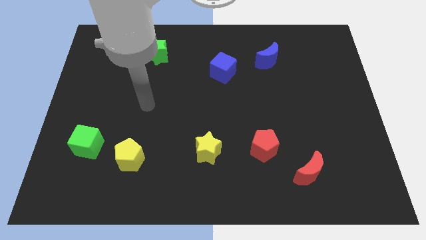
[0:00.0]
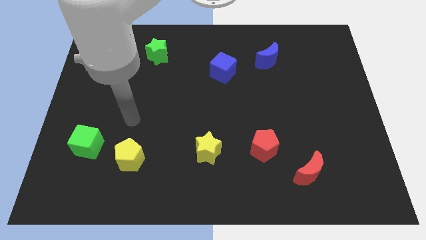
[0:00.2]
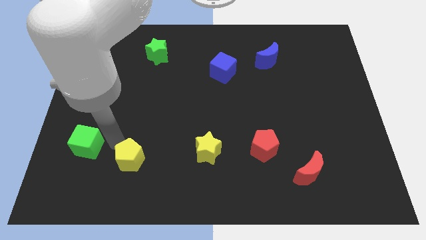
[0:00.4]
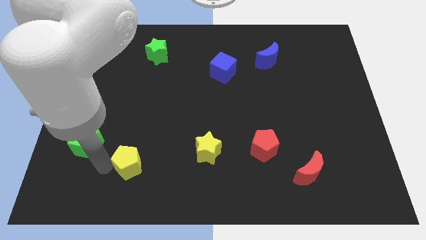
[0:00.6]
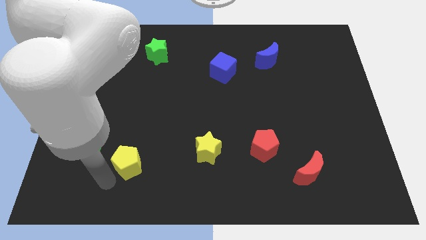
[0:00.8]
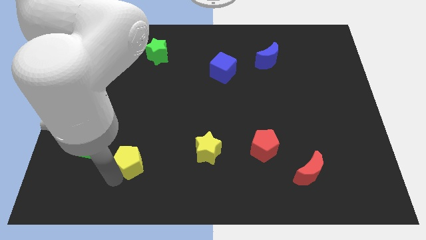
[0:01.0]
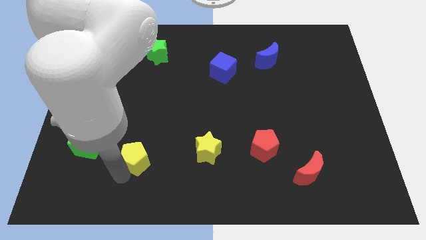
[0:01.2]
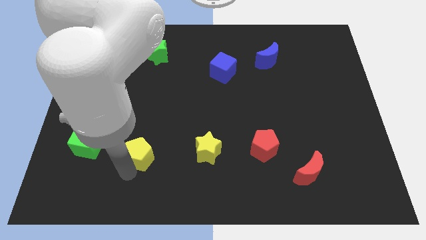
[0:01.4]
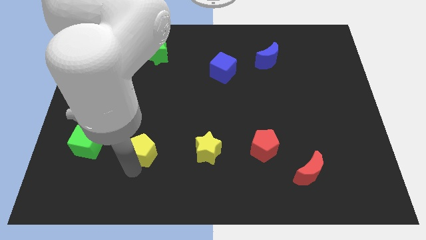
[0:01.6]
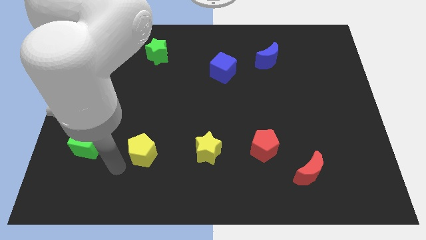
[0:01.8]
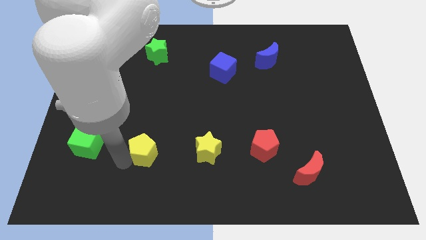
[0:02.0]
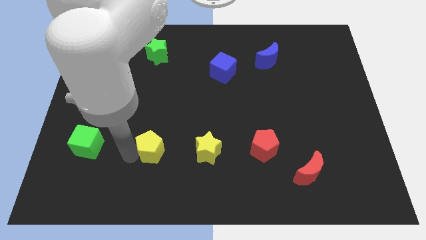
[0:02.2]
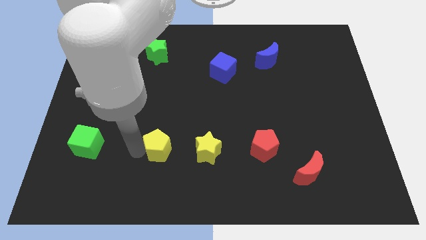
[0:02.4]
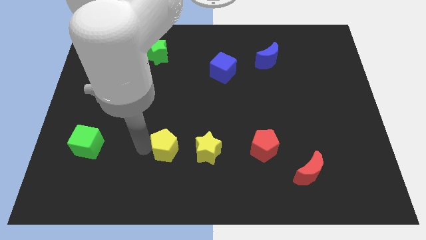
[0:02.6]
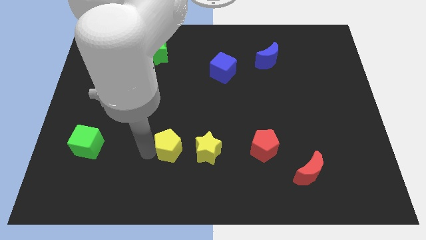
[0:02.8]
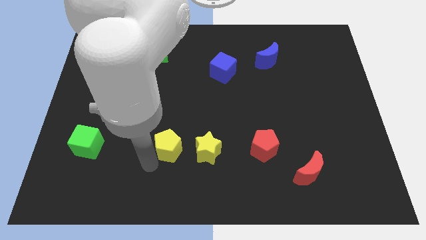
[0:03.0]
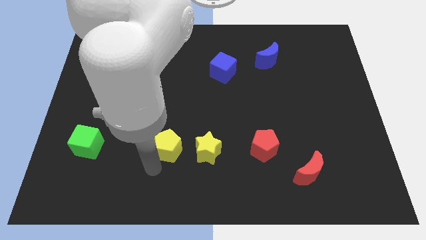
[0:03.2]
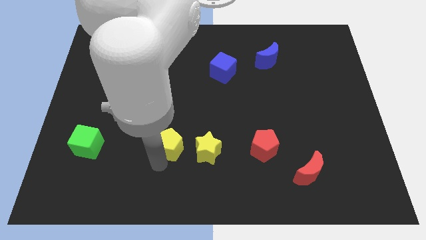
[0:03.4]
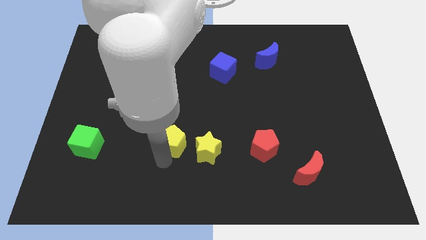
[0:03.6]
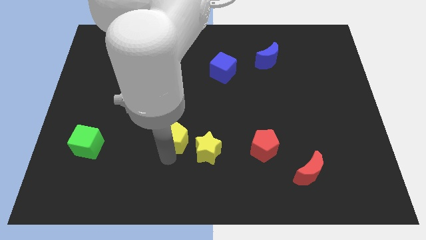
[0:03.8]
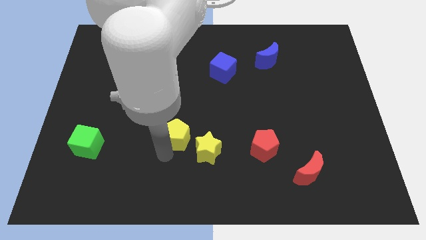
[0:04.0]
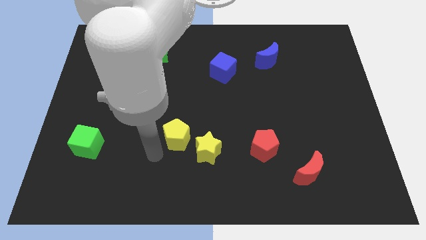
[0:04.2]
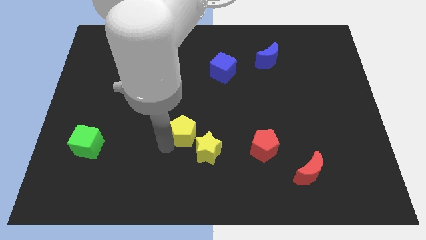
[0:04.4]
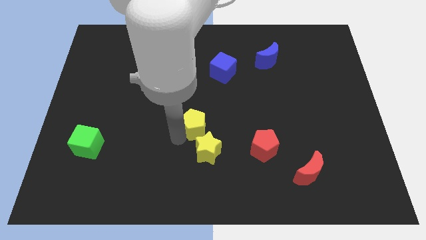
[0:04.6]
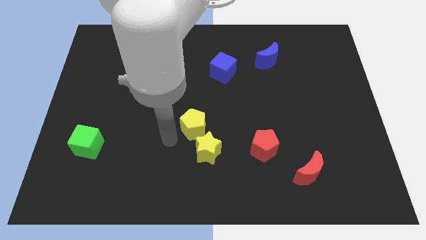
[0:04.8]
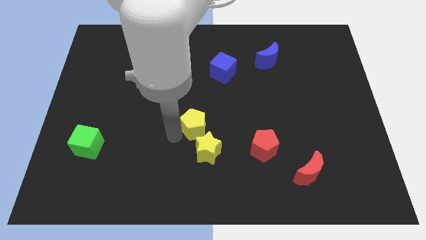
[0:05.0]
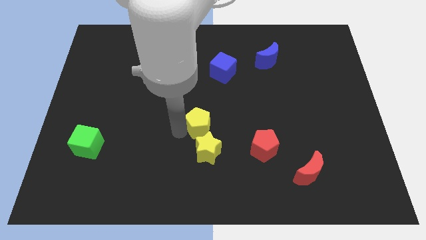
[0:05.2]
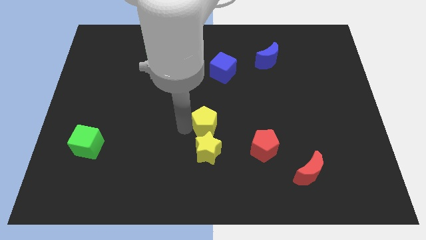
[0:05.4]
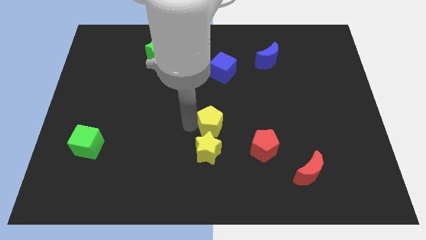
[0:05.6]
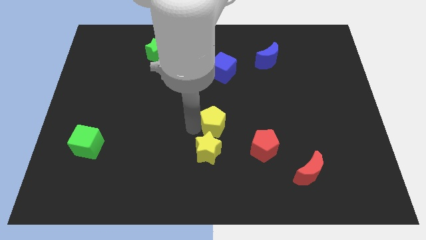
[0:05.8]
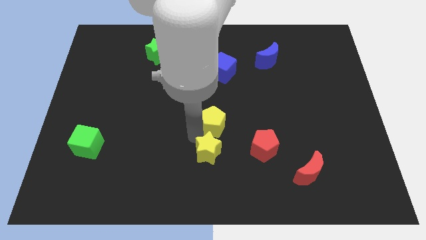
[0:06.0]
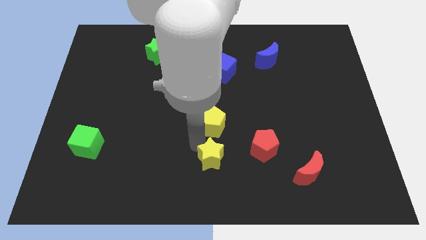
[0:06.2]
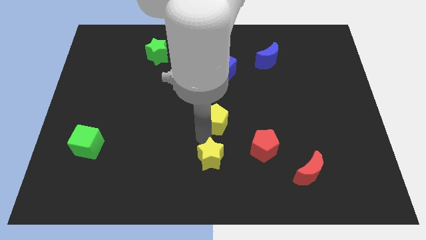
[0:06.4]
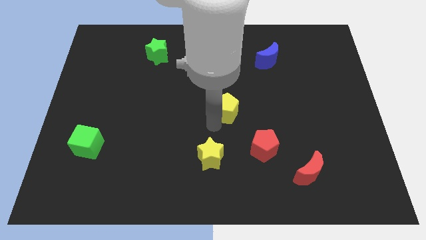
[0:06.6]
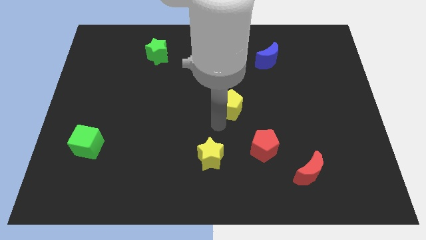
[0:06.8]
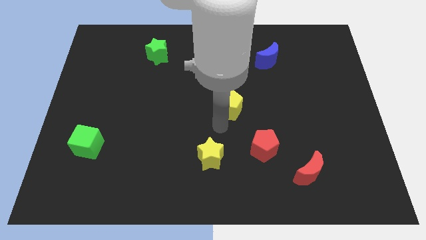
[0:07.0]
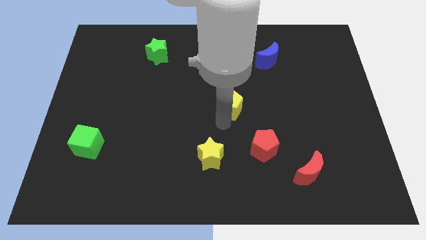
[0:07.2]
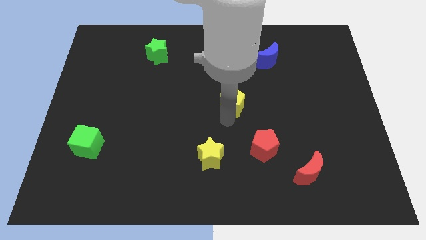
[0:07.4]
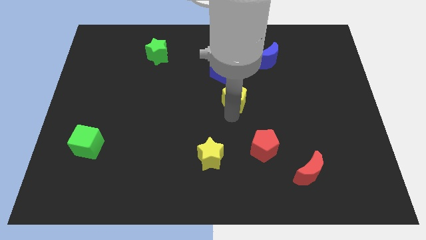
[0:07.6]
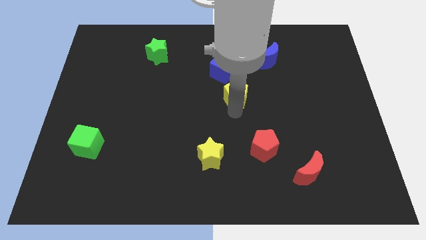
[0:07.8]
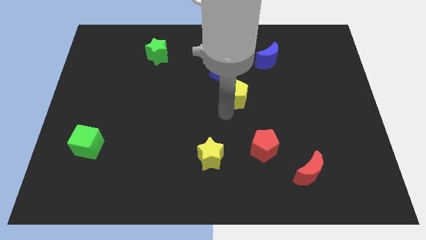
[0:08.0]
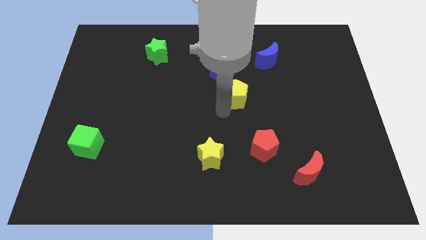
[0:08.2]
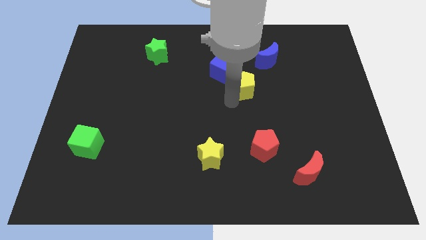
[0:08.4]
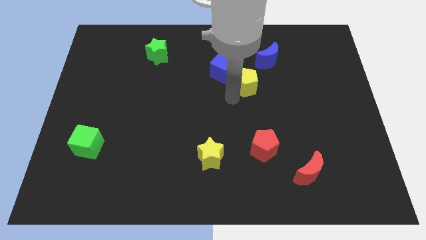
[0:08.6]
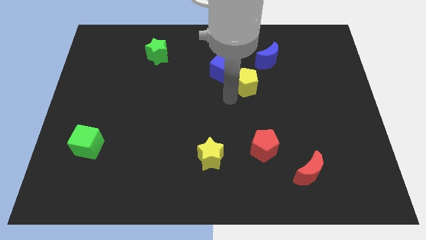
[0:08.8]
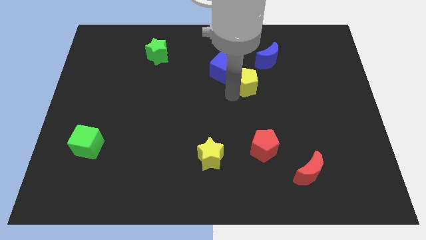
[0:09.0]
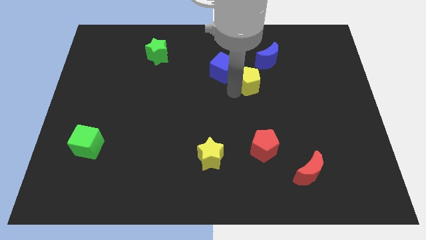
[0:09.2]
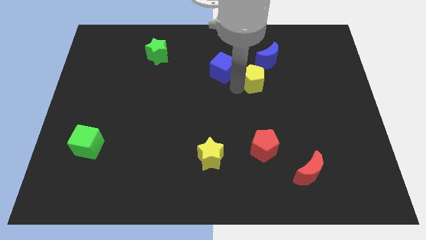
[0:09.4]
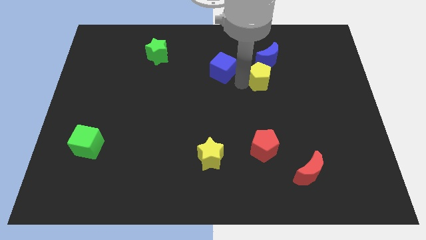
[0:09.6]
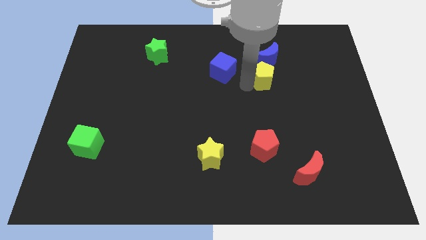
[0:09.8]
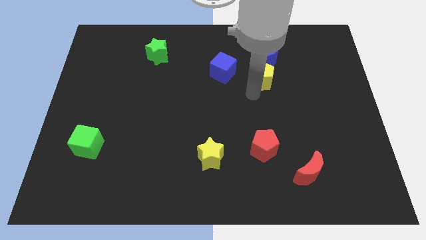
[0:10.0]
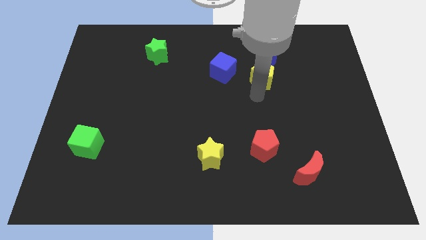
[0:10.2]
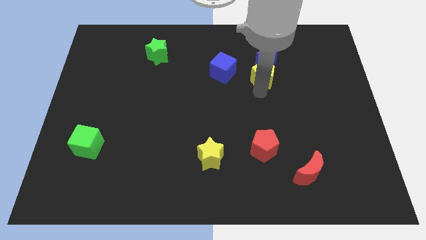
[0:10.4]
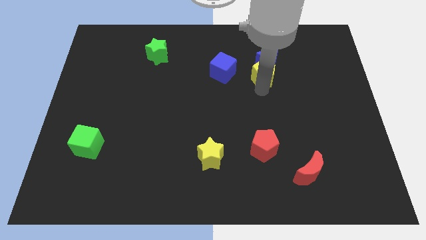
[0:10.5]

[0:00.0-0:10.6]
put the yellow pentagon towards the blue moon

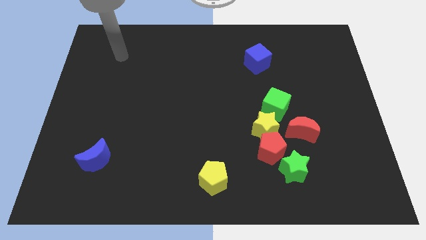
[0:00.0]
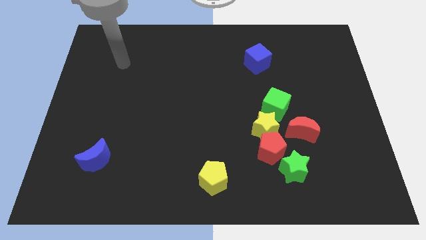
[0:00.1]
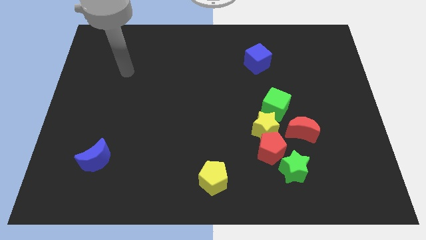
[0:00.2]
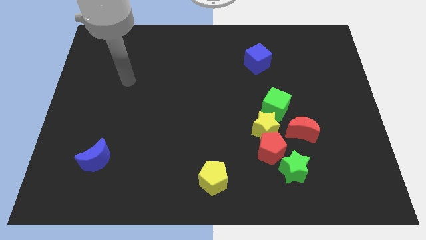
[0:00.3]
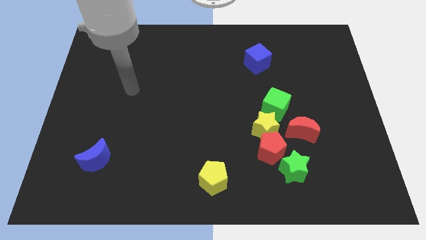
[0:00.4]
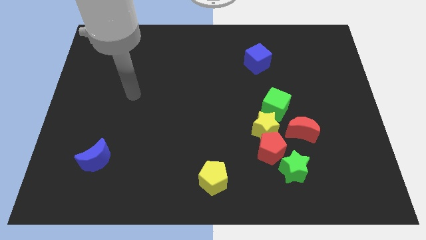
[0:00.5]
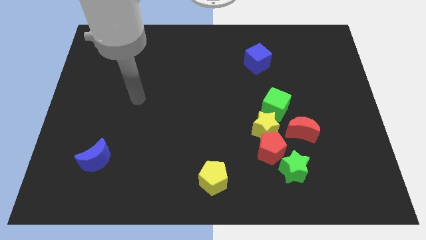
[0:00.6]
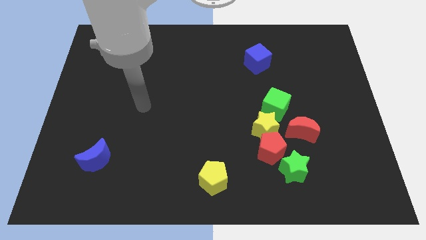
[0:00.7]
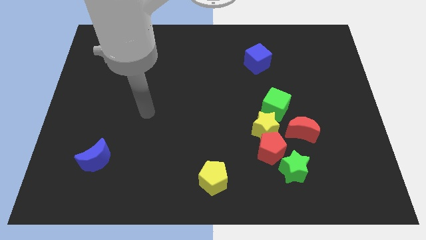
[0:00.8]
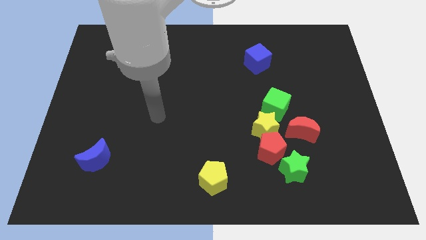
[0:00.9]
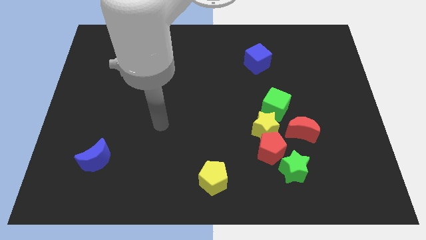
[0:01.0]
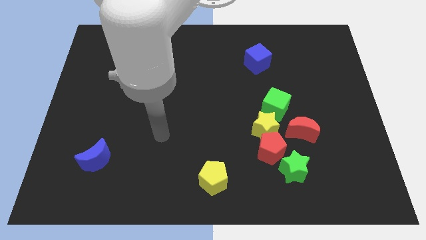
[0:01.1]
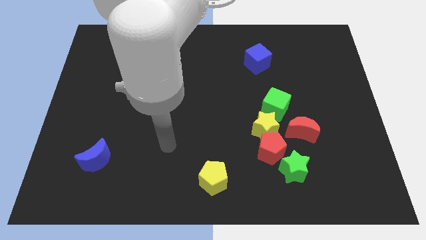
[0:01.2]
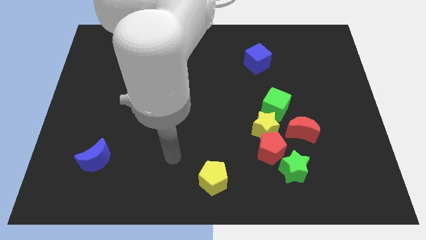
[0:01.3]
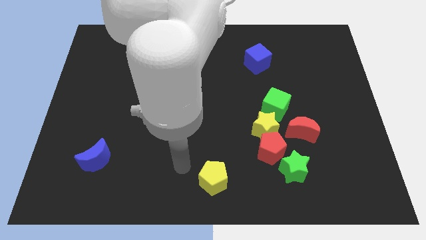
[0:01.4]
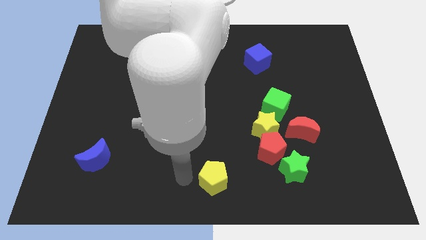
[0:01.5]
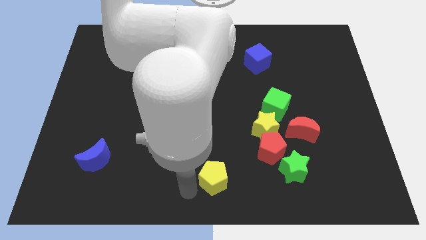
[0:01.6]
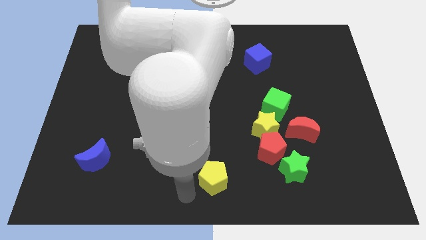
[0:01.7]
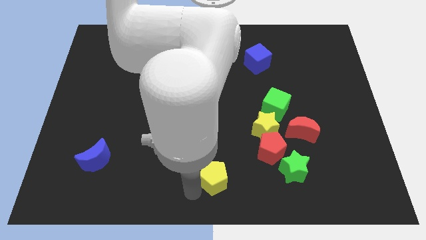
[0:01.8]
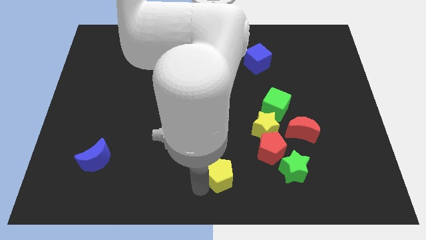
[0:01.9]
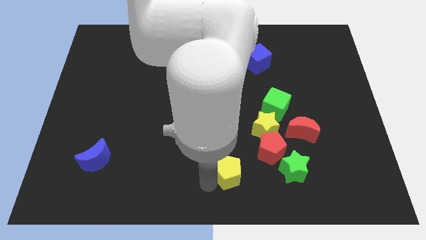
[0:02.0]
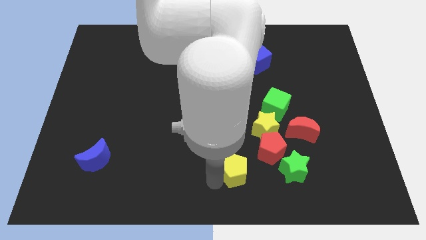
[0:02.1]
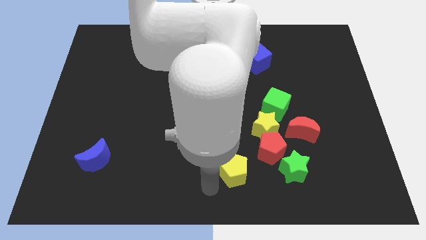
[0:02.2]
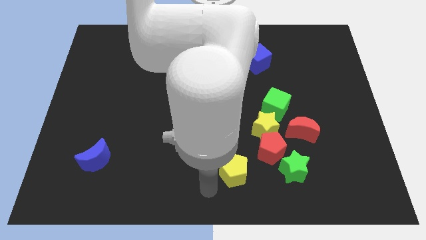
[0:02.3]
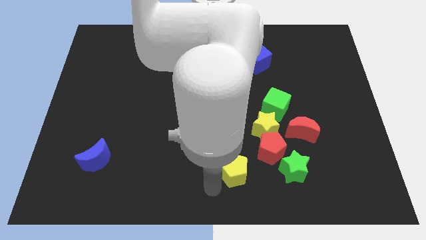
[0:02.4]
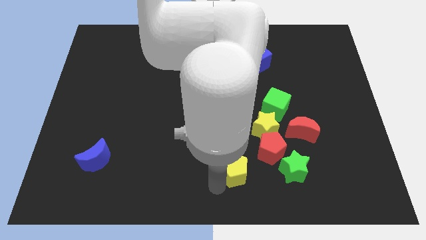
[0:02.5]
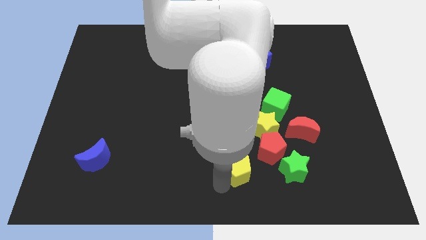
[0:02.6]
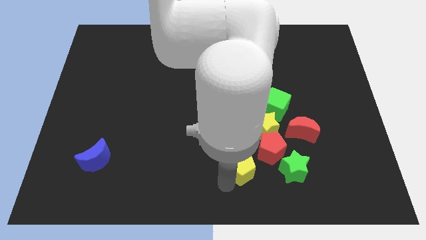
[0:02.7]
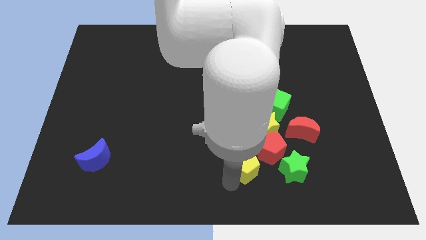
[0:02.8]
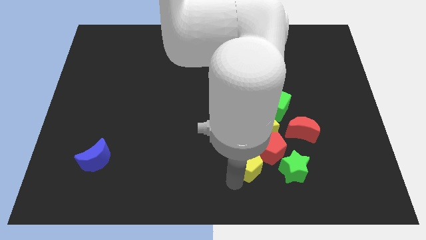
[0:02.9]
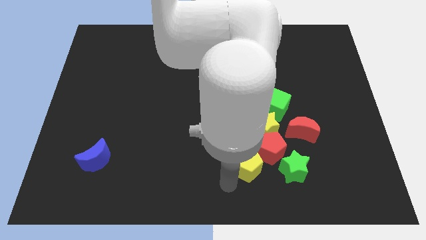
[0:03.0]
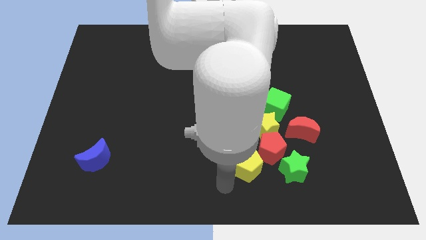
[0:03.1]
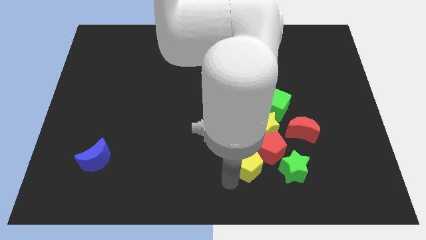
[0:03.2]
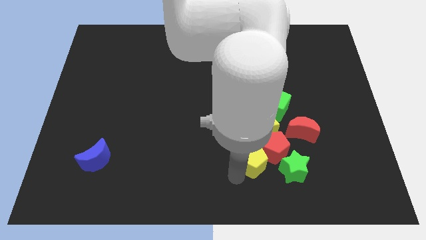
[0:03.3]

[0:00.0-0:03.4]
push the yellow pentagon to the red pentagon

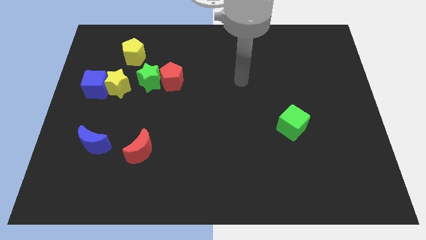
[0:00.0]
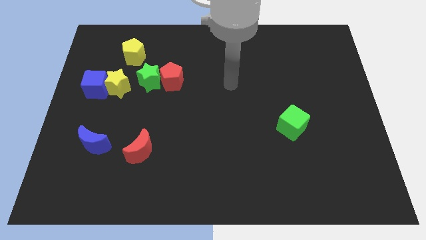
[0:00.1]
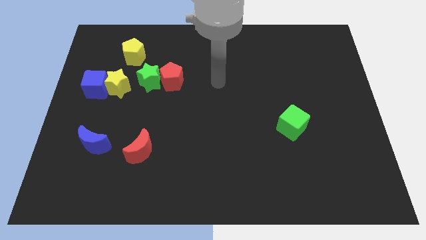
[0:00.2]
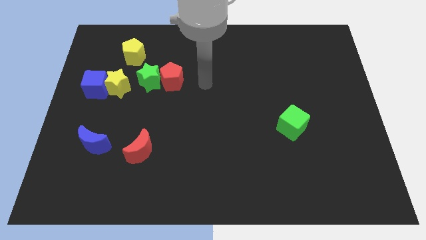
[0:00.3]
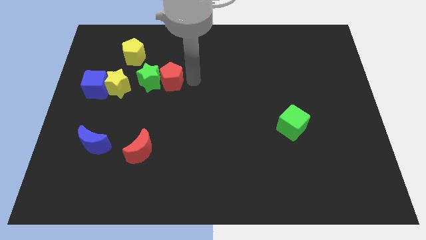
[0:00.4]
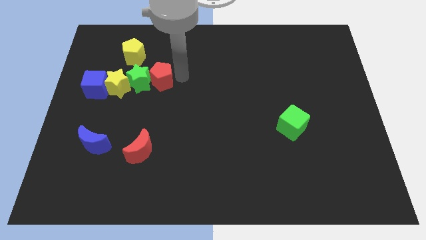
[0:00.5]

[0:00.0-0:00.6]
move the green star next to the yellow star
